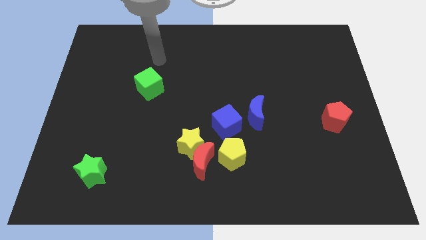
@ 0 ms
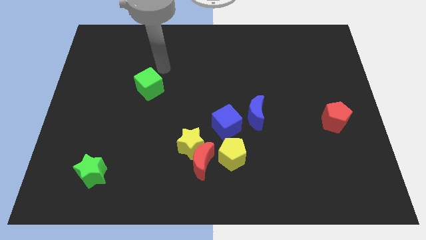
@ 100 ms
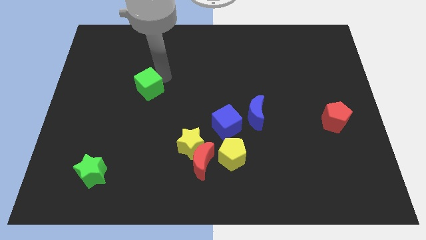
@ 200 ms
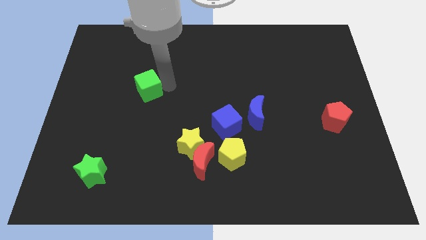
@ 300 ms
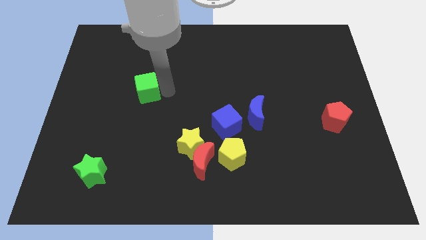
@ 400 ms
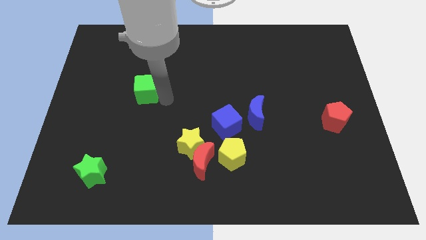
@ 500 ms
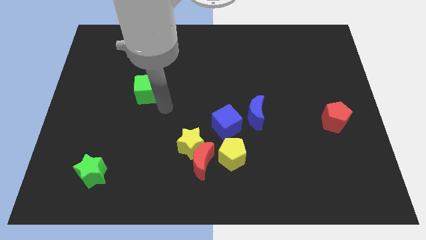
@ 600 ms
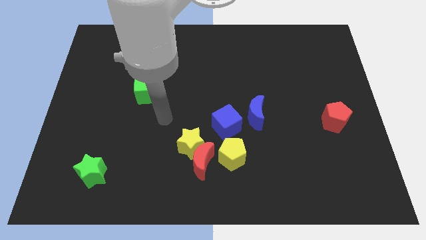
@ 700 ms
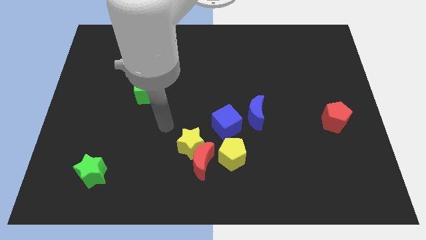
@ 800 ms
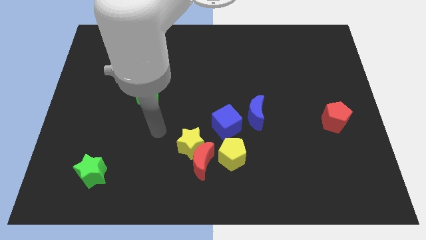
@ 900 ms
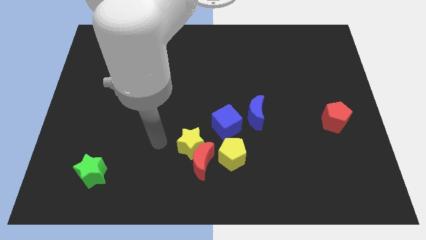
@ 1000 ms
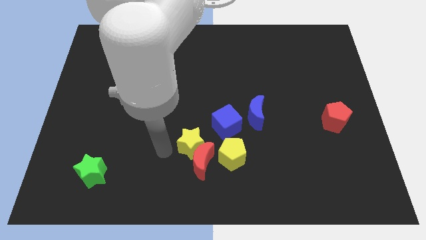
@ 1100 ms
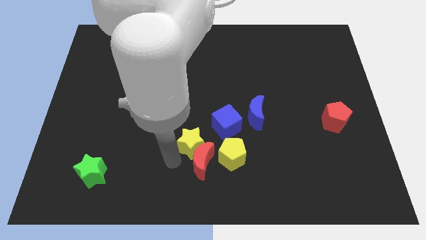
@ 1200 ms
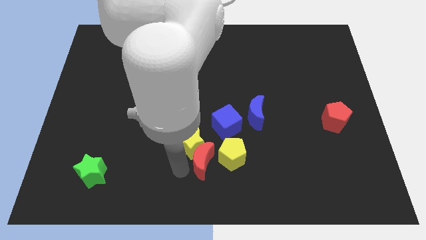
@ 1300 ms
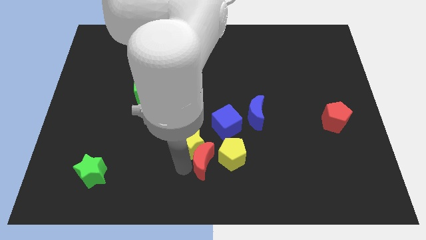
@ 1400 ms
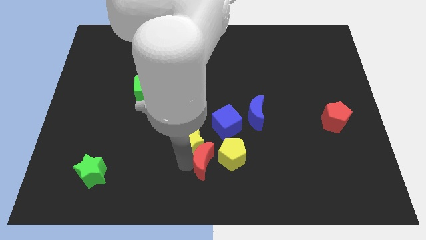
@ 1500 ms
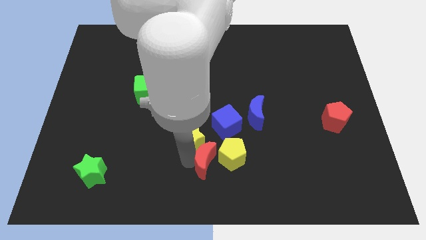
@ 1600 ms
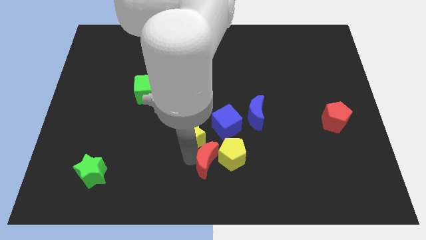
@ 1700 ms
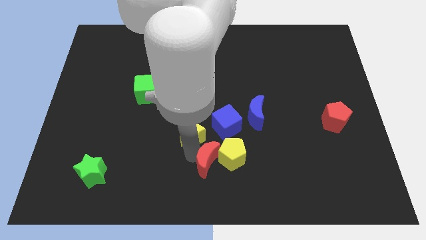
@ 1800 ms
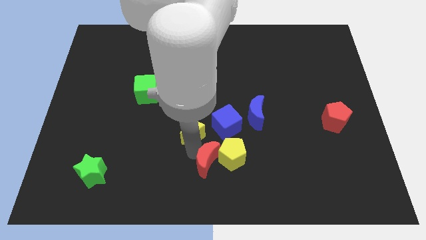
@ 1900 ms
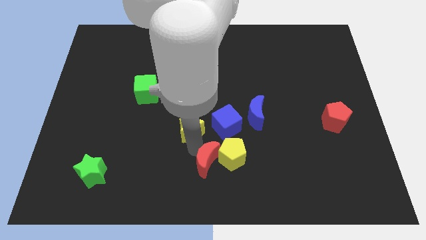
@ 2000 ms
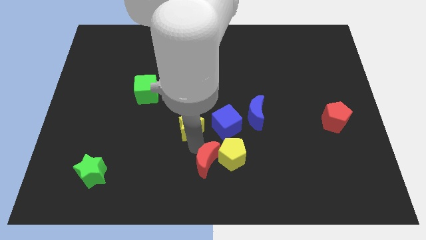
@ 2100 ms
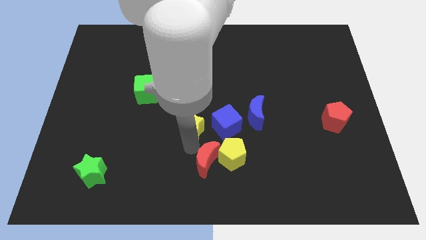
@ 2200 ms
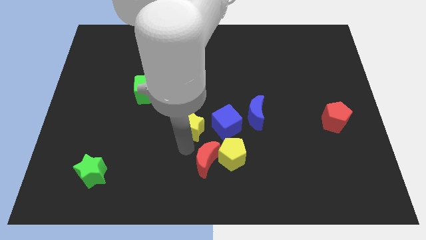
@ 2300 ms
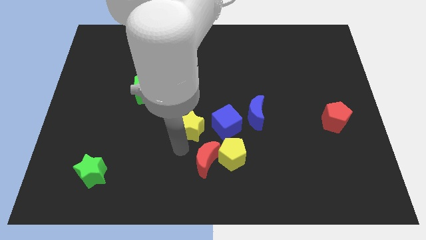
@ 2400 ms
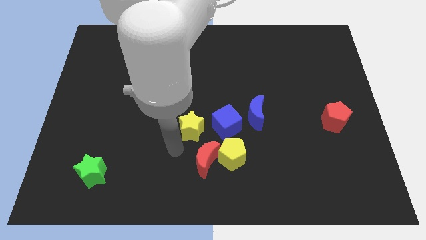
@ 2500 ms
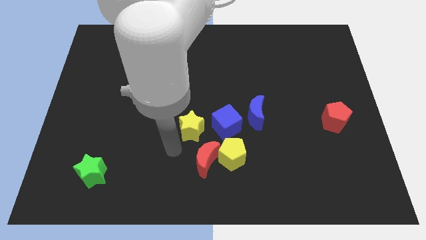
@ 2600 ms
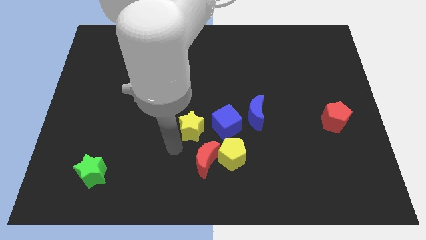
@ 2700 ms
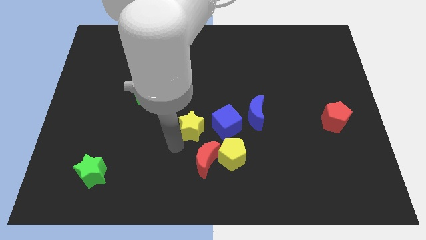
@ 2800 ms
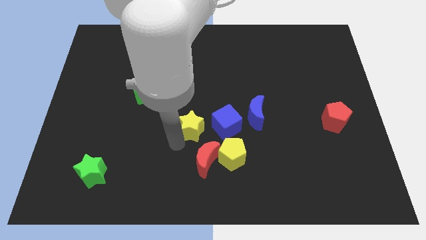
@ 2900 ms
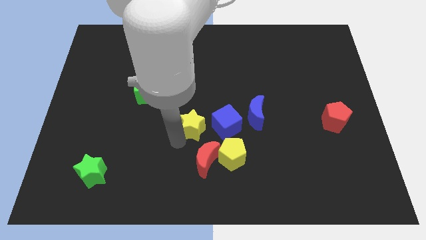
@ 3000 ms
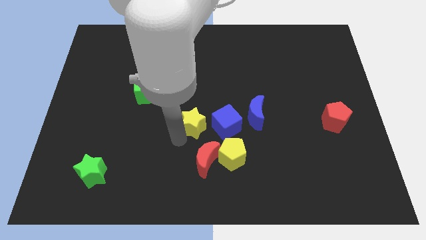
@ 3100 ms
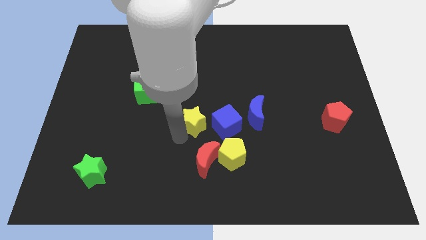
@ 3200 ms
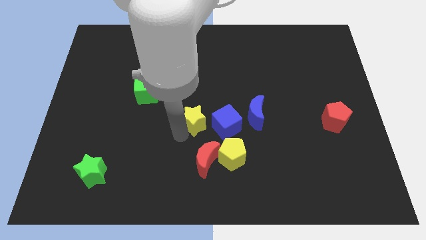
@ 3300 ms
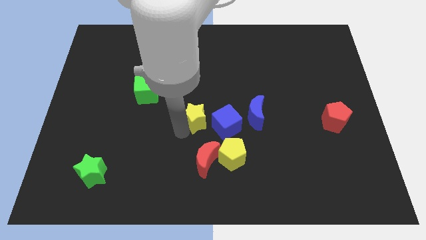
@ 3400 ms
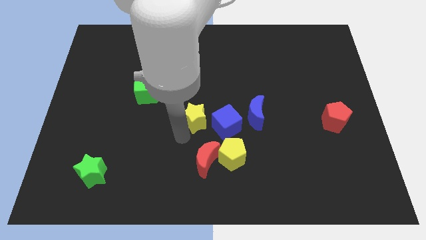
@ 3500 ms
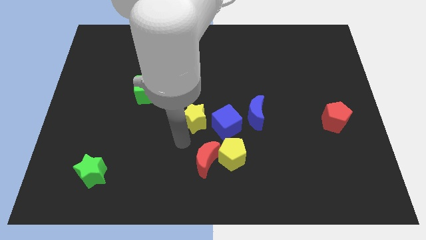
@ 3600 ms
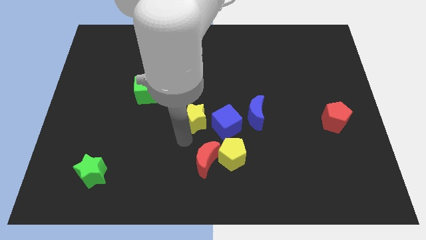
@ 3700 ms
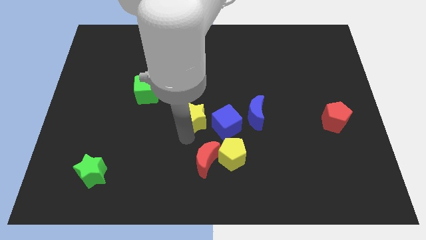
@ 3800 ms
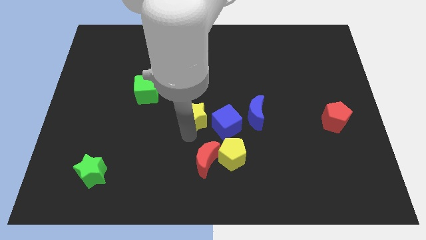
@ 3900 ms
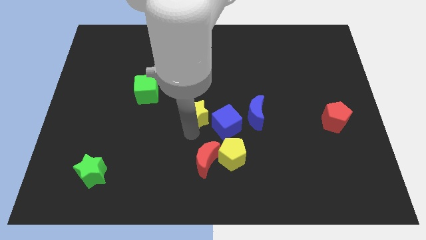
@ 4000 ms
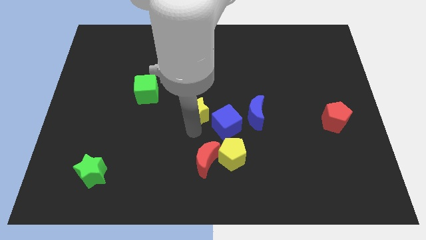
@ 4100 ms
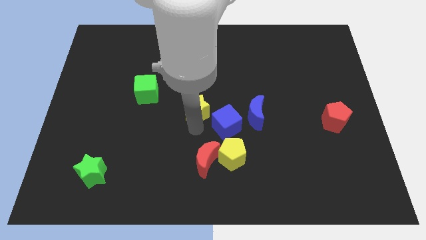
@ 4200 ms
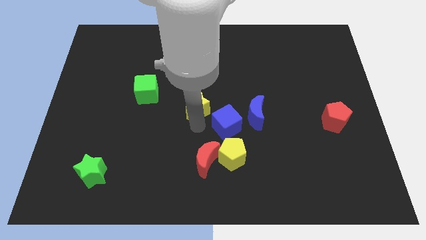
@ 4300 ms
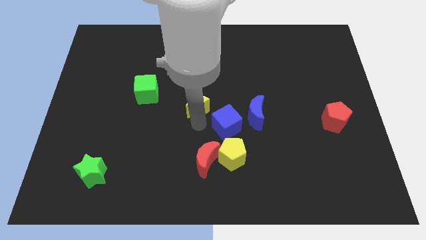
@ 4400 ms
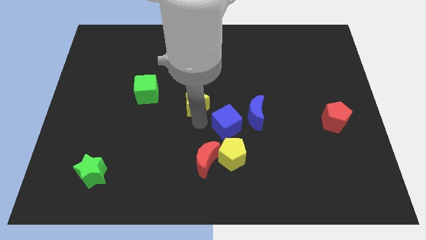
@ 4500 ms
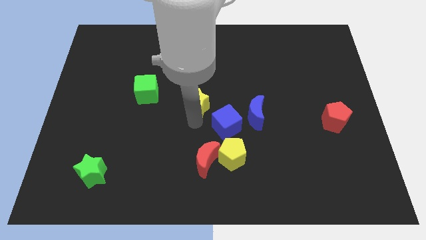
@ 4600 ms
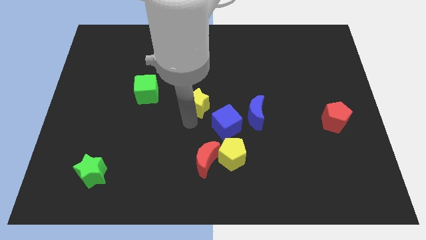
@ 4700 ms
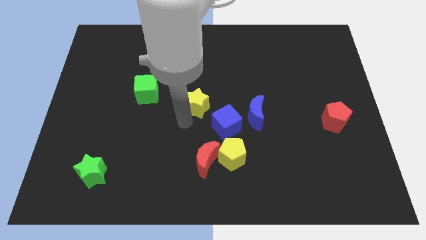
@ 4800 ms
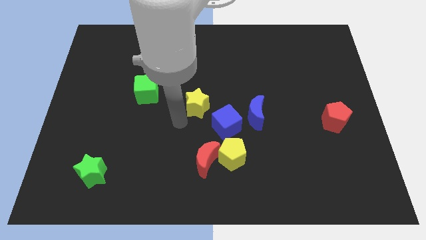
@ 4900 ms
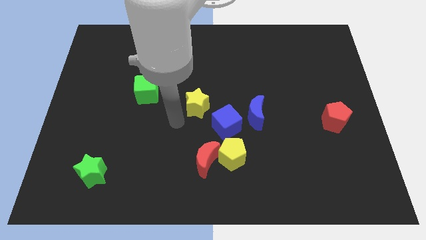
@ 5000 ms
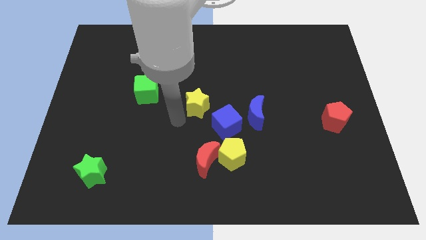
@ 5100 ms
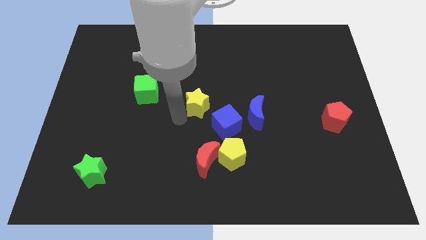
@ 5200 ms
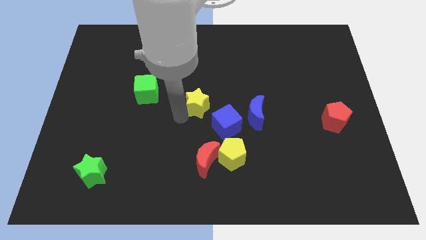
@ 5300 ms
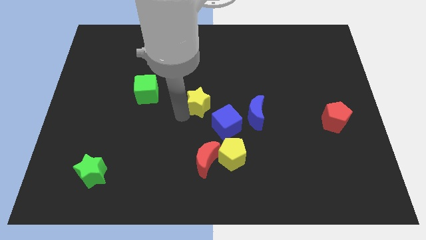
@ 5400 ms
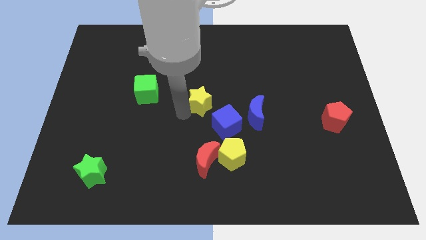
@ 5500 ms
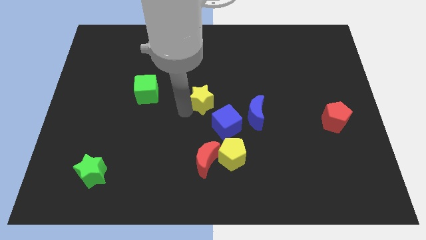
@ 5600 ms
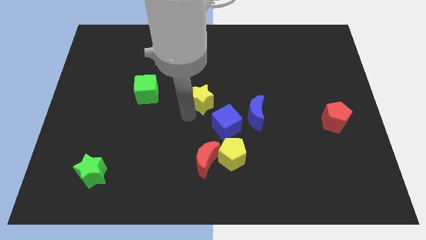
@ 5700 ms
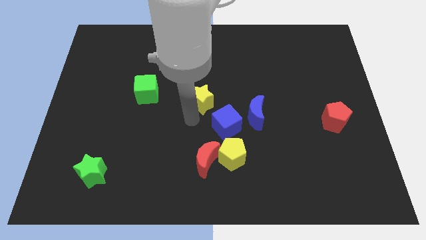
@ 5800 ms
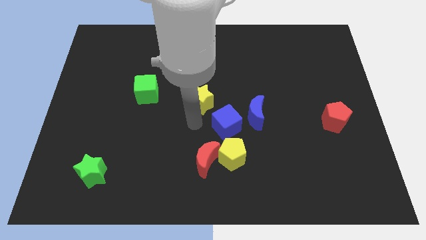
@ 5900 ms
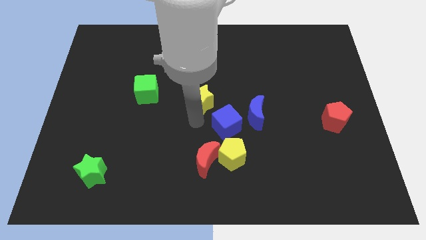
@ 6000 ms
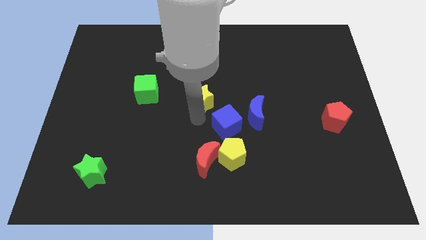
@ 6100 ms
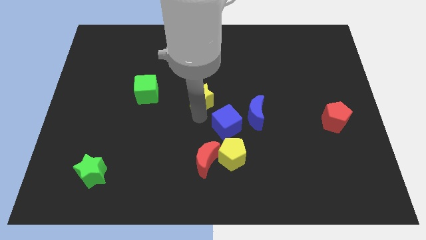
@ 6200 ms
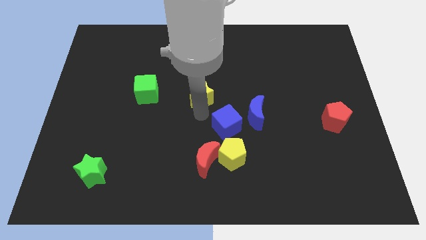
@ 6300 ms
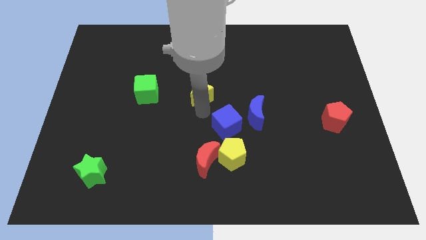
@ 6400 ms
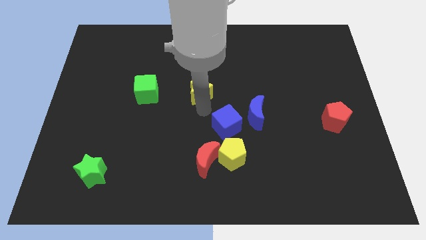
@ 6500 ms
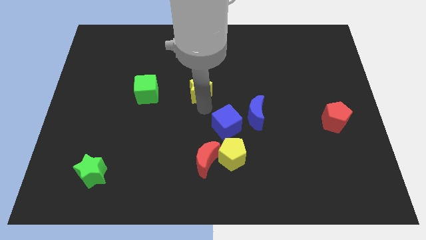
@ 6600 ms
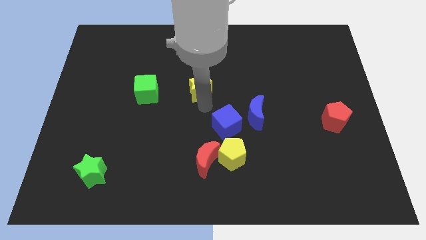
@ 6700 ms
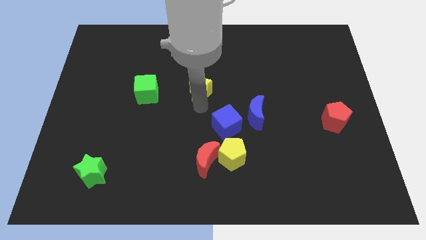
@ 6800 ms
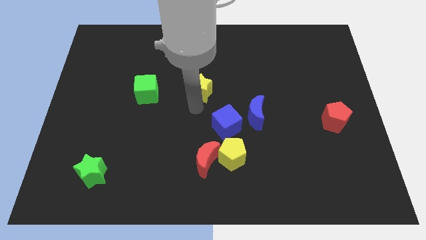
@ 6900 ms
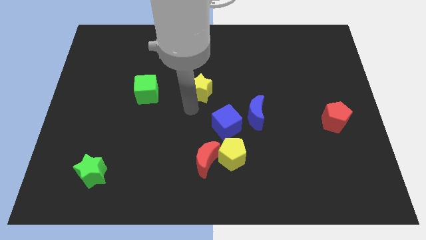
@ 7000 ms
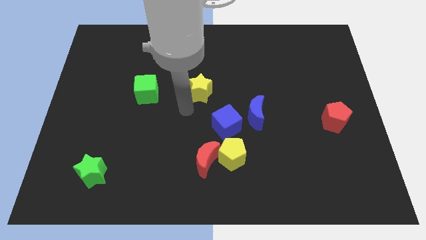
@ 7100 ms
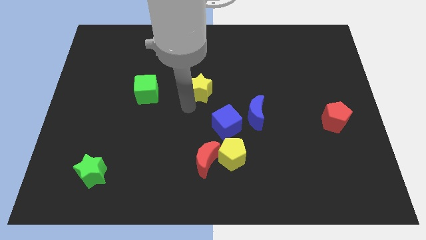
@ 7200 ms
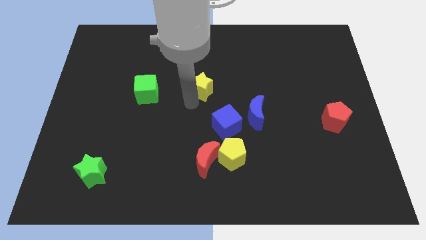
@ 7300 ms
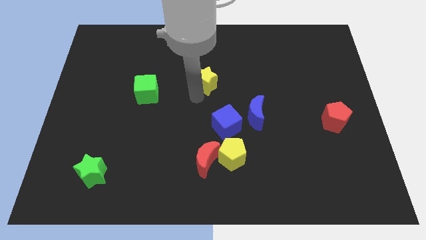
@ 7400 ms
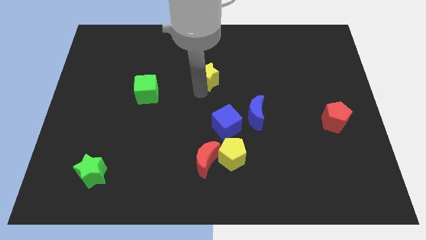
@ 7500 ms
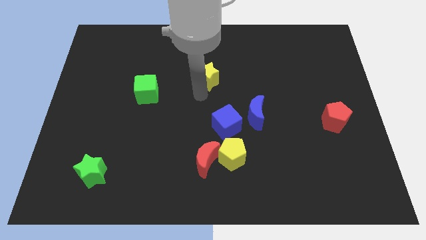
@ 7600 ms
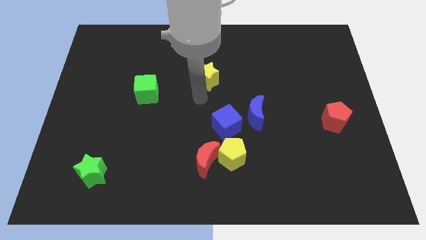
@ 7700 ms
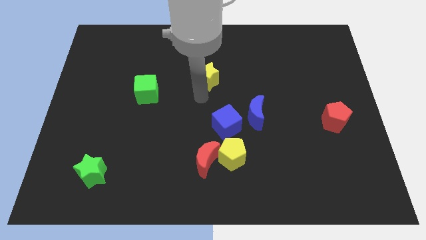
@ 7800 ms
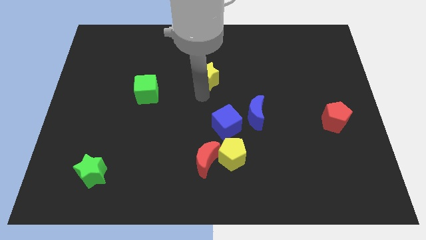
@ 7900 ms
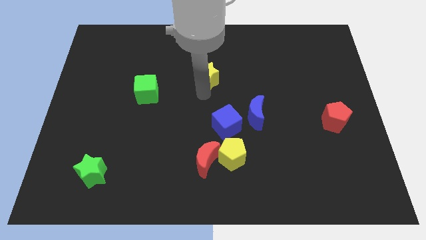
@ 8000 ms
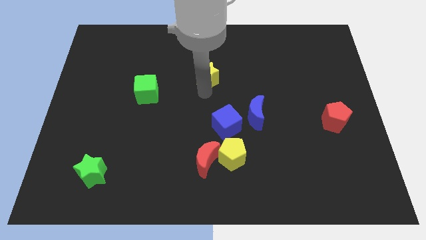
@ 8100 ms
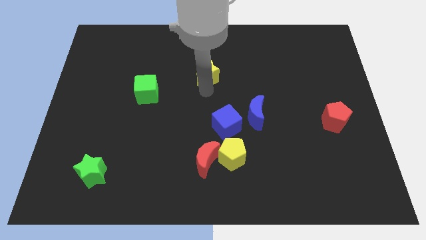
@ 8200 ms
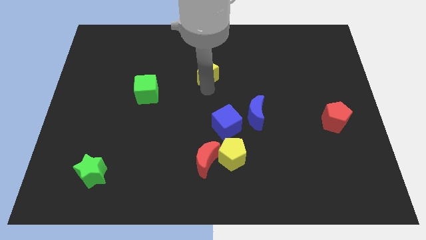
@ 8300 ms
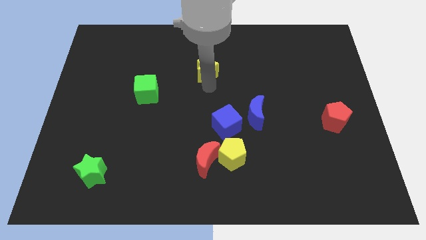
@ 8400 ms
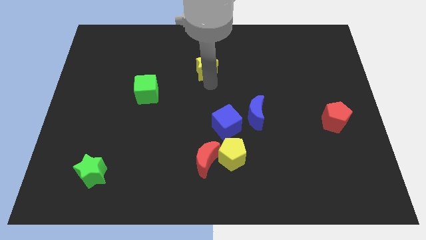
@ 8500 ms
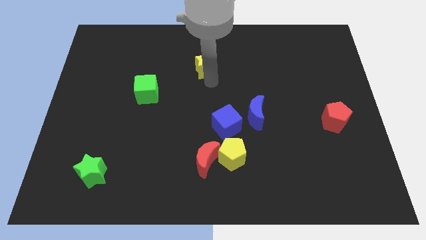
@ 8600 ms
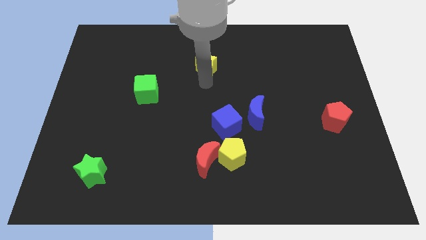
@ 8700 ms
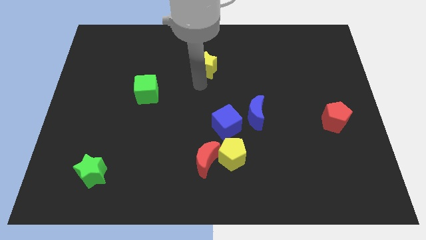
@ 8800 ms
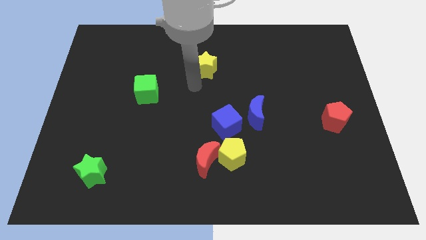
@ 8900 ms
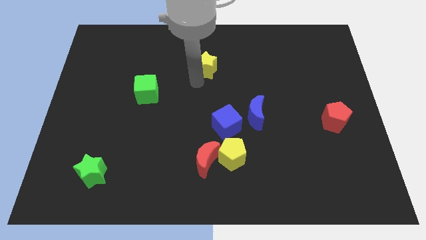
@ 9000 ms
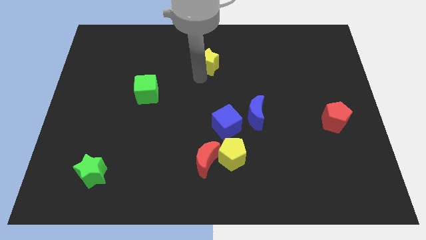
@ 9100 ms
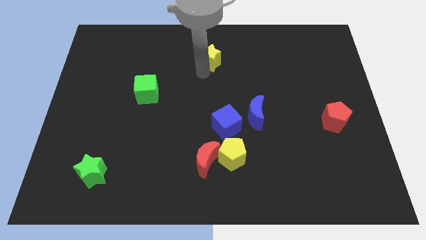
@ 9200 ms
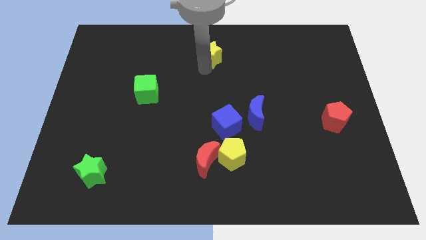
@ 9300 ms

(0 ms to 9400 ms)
slide the yellow star to the top
